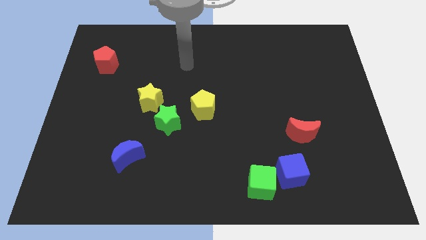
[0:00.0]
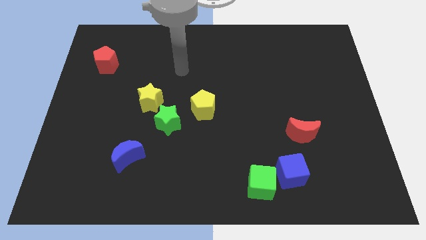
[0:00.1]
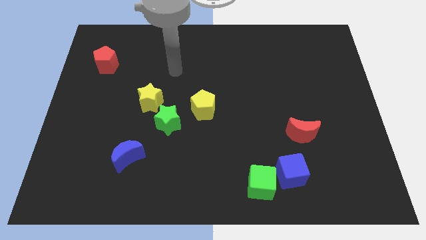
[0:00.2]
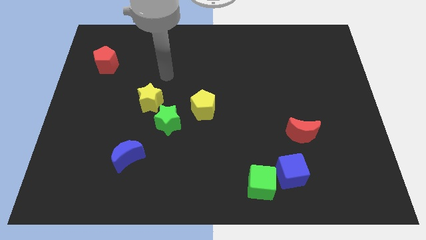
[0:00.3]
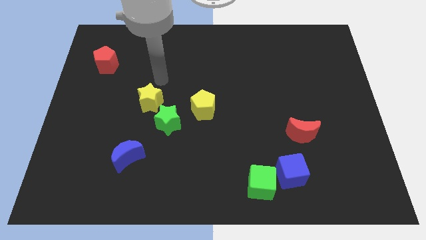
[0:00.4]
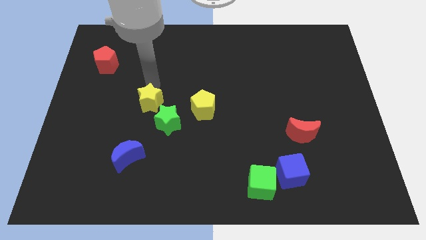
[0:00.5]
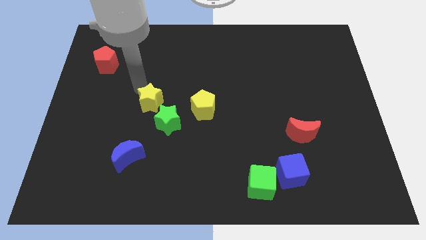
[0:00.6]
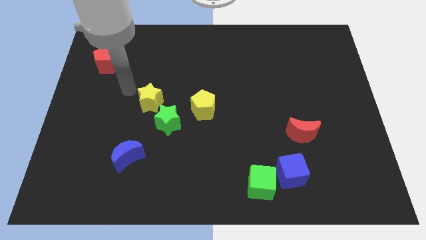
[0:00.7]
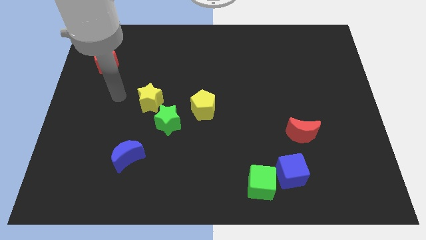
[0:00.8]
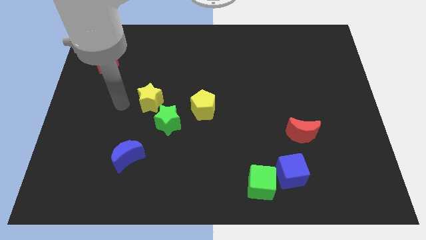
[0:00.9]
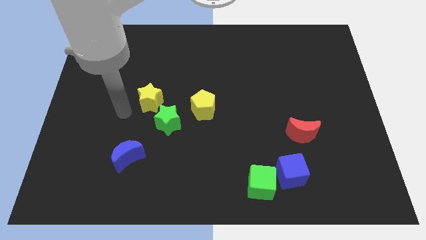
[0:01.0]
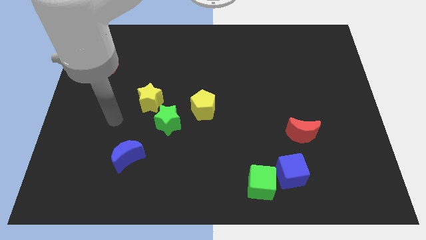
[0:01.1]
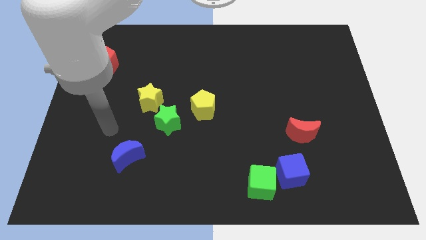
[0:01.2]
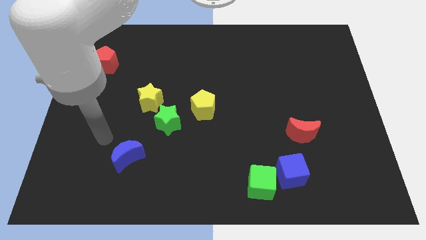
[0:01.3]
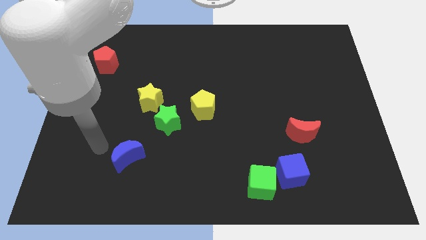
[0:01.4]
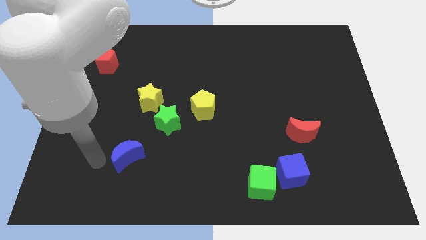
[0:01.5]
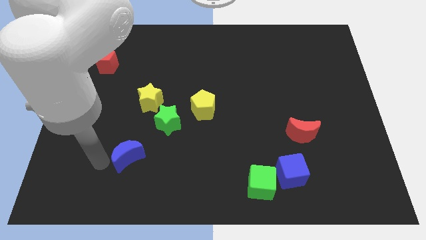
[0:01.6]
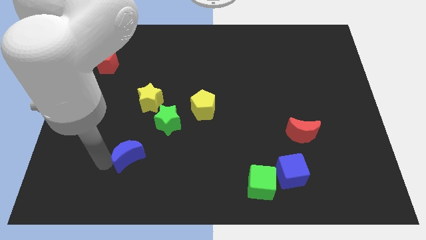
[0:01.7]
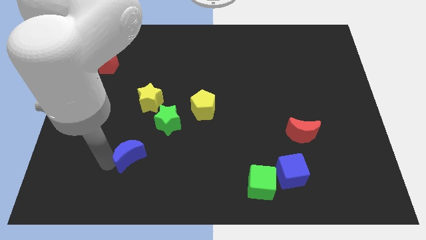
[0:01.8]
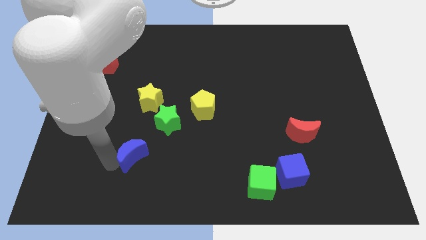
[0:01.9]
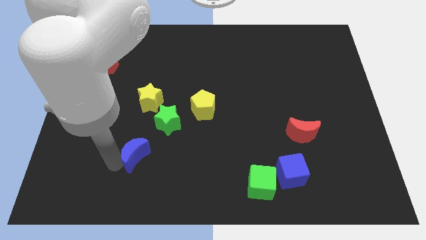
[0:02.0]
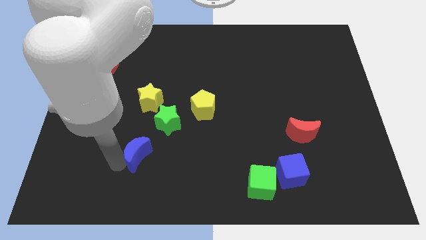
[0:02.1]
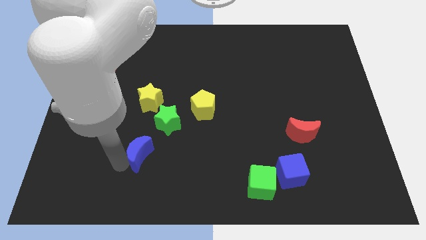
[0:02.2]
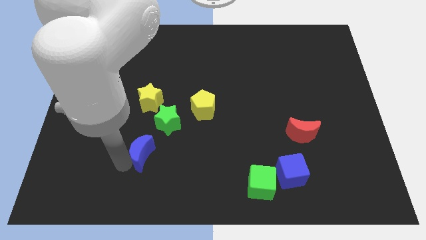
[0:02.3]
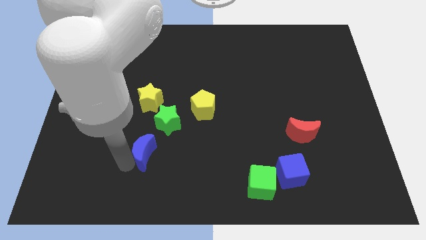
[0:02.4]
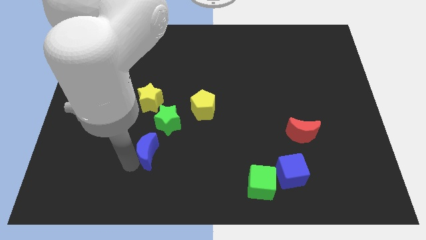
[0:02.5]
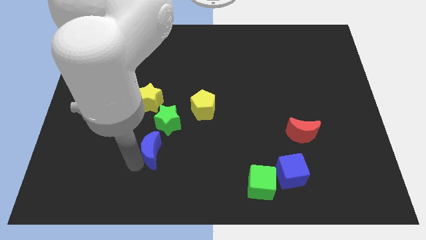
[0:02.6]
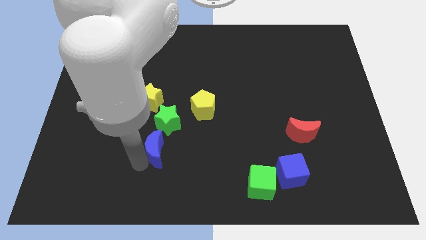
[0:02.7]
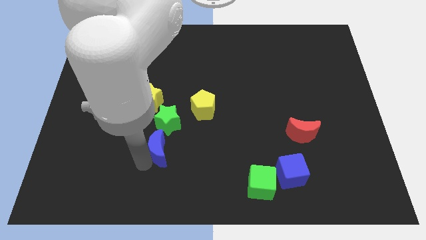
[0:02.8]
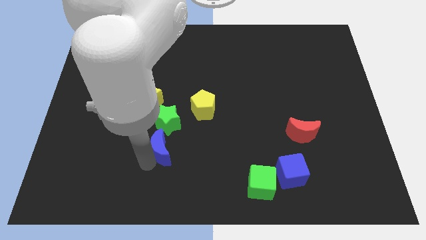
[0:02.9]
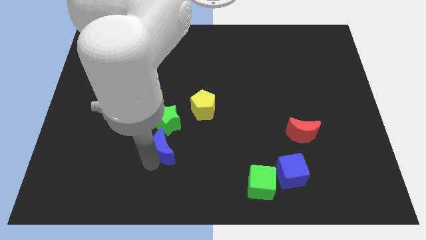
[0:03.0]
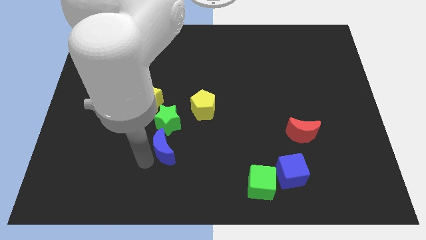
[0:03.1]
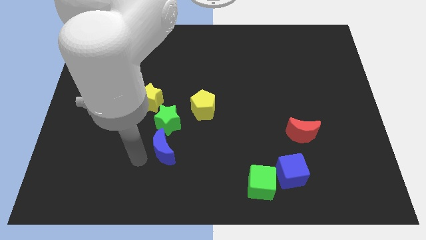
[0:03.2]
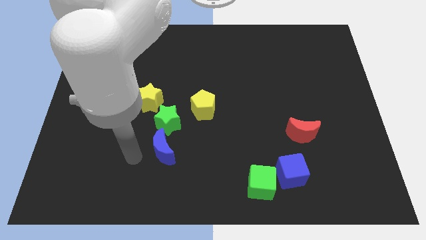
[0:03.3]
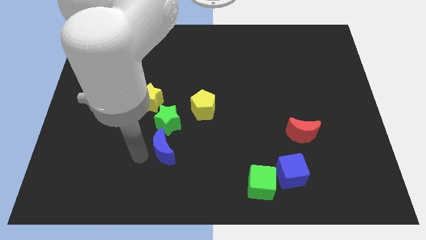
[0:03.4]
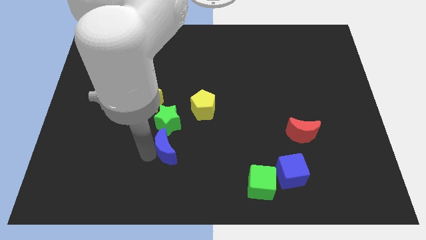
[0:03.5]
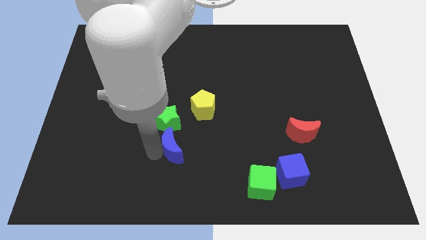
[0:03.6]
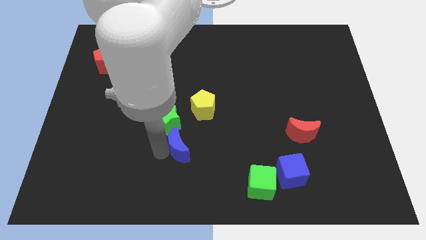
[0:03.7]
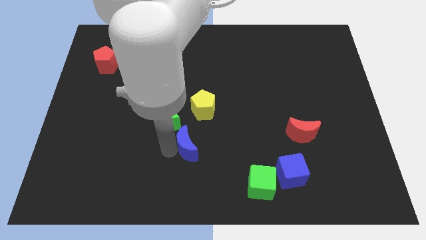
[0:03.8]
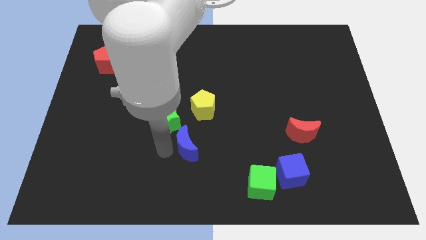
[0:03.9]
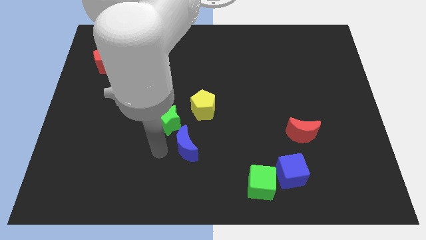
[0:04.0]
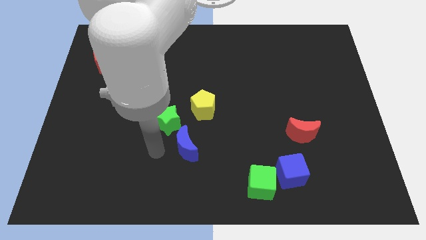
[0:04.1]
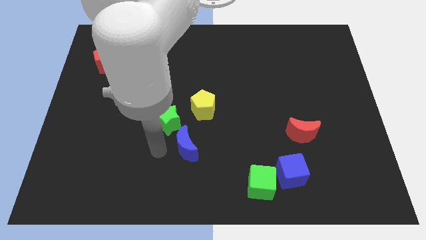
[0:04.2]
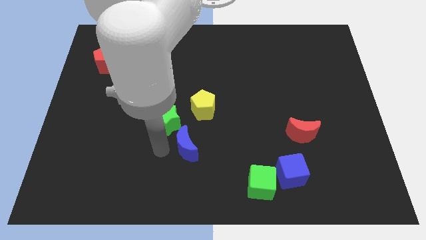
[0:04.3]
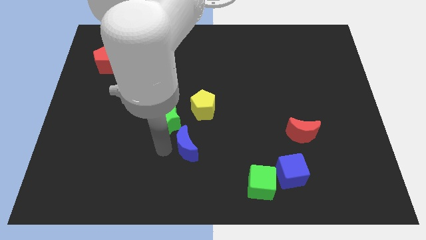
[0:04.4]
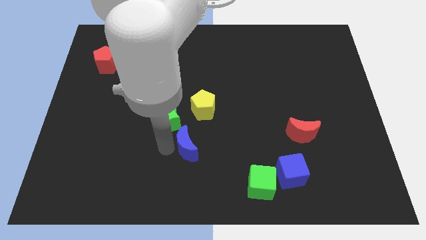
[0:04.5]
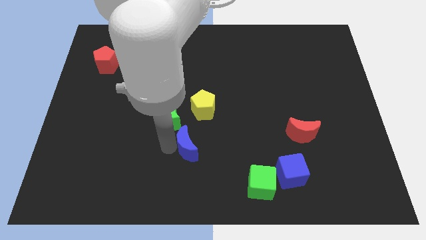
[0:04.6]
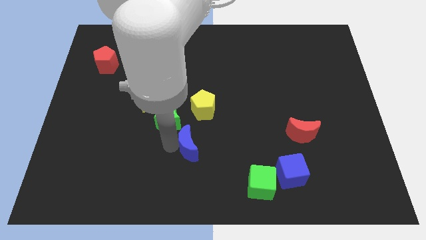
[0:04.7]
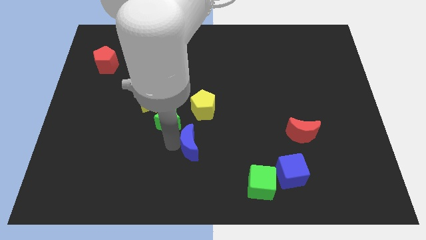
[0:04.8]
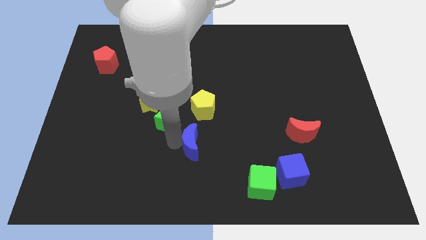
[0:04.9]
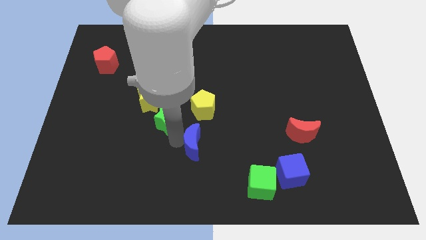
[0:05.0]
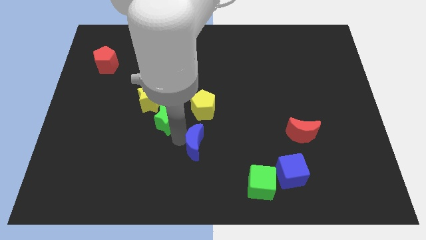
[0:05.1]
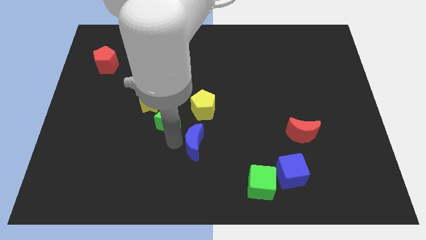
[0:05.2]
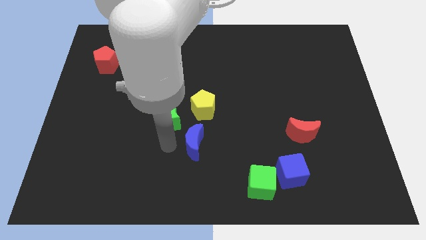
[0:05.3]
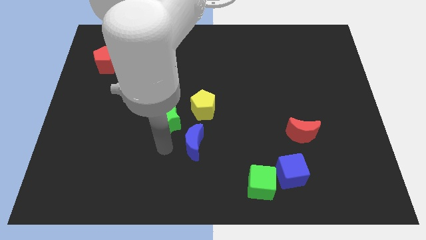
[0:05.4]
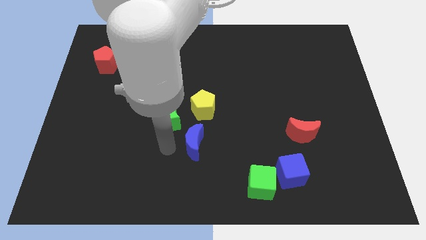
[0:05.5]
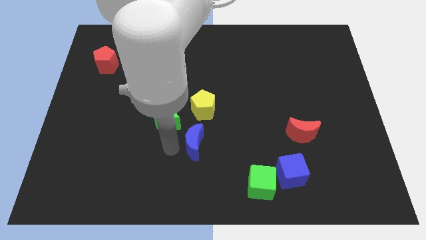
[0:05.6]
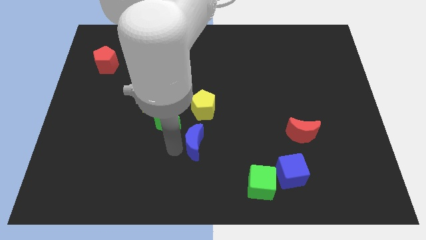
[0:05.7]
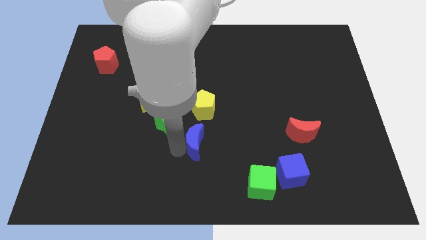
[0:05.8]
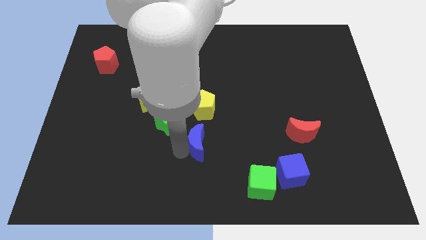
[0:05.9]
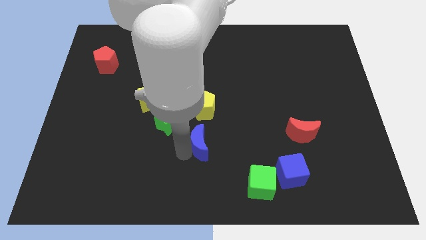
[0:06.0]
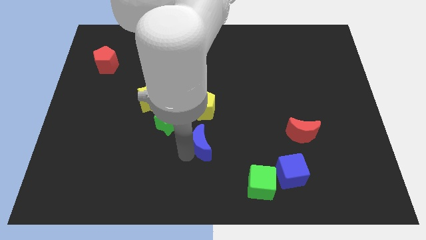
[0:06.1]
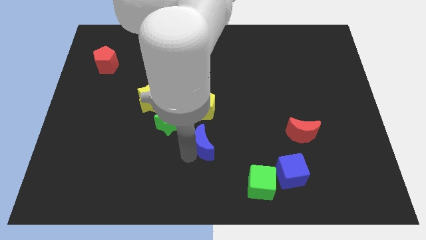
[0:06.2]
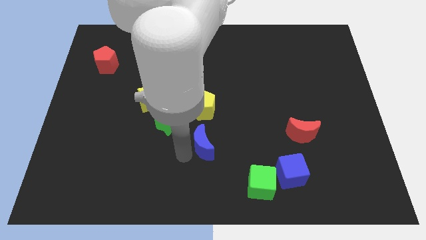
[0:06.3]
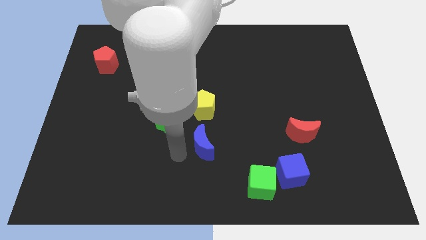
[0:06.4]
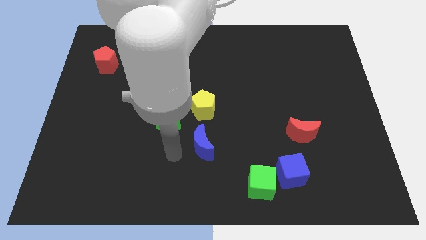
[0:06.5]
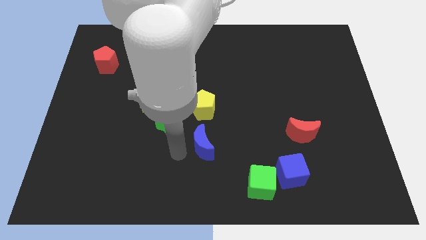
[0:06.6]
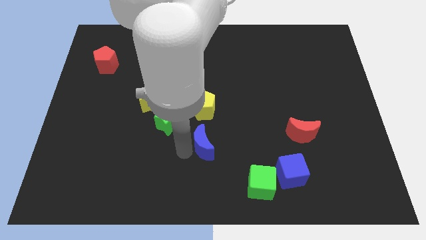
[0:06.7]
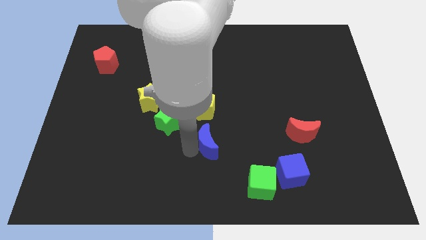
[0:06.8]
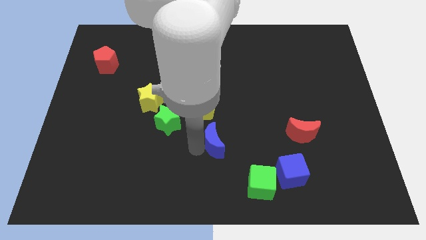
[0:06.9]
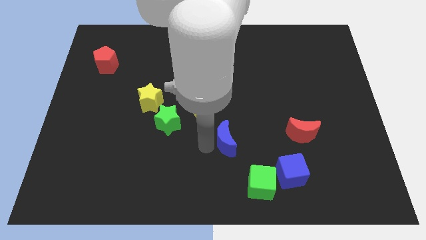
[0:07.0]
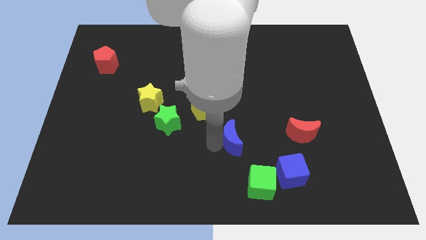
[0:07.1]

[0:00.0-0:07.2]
move the blue moon left of the red moon
